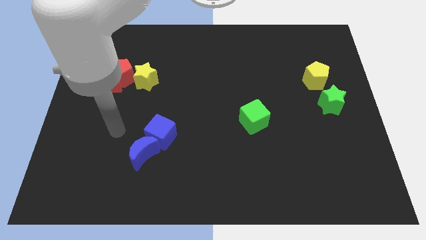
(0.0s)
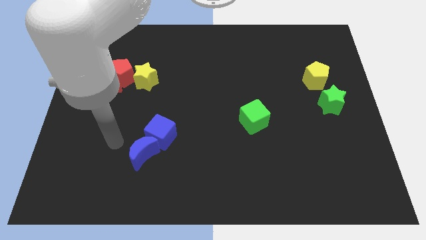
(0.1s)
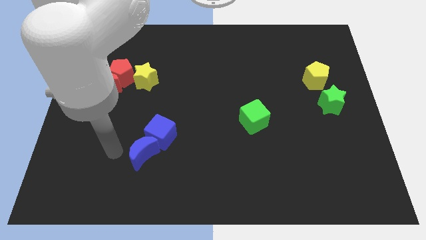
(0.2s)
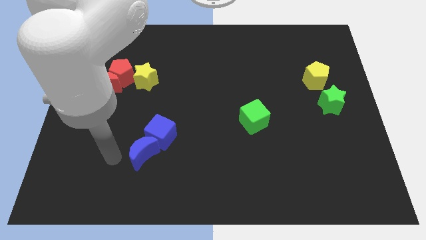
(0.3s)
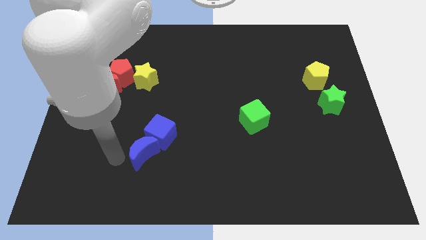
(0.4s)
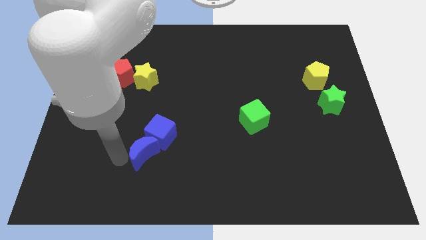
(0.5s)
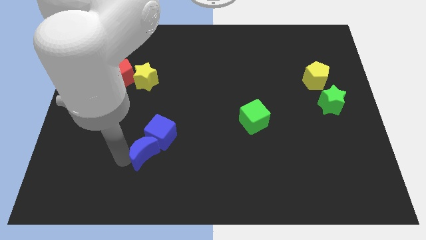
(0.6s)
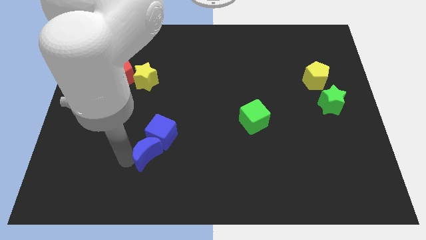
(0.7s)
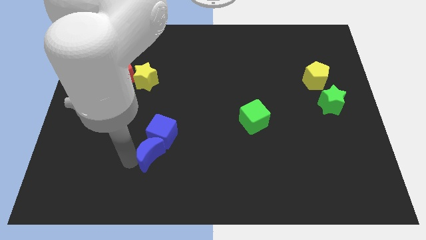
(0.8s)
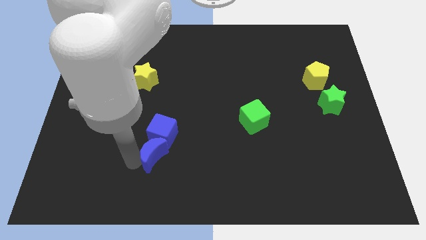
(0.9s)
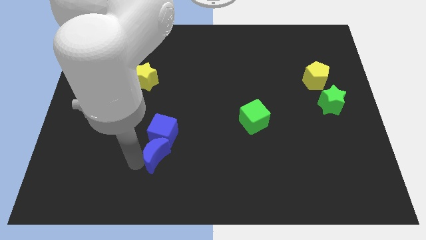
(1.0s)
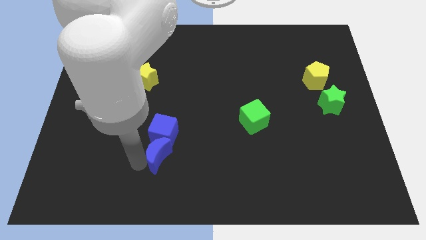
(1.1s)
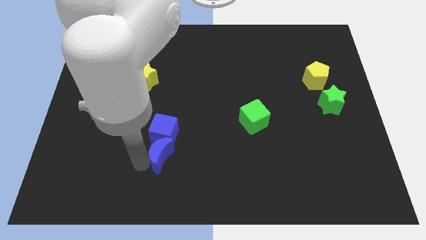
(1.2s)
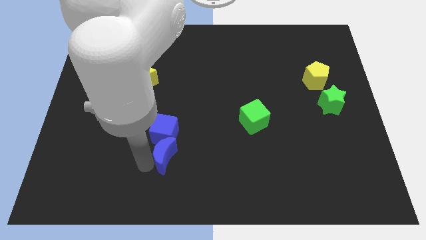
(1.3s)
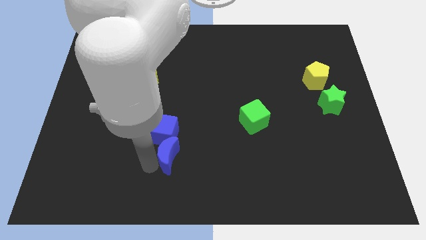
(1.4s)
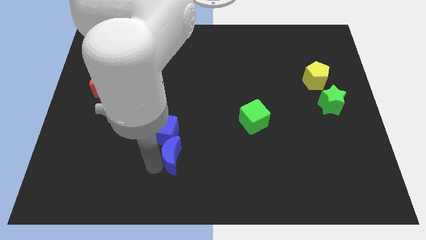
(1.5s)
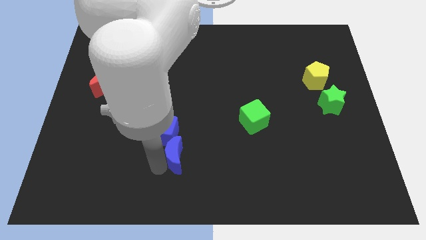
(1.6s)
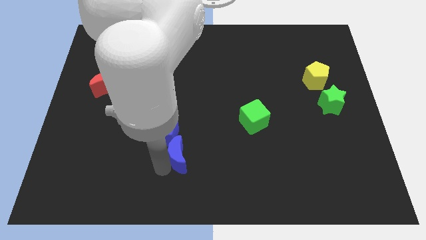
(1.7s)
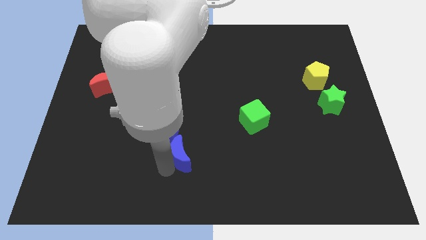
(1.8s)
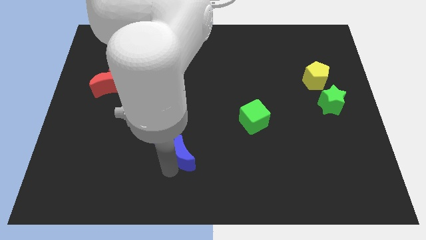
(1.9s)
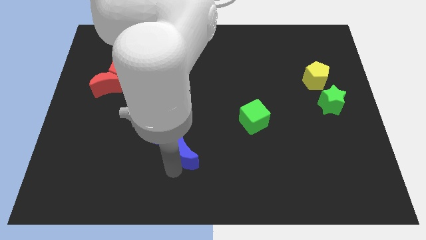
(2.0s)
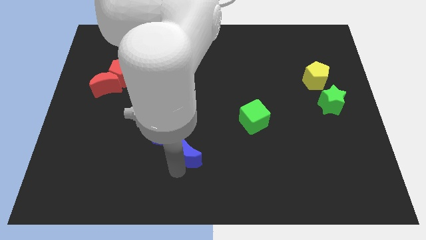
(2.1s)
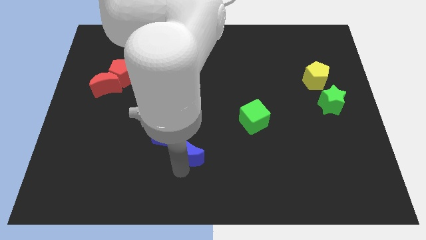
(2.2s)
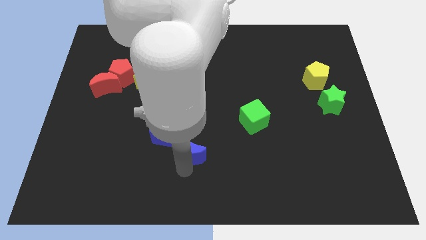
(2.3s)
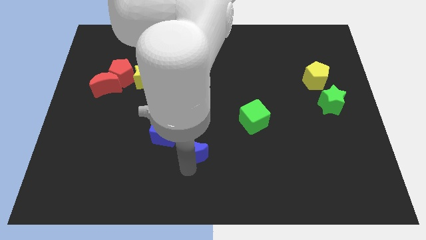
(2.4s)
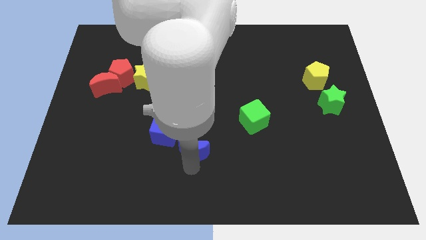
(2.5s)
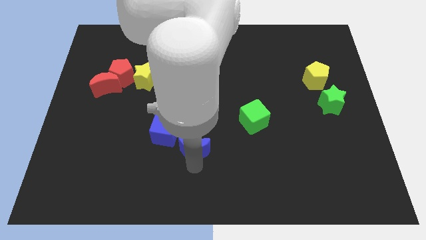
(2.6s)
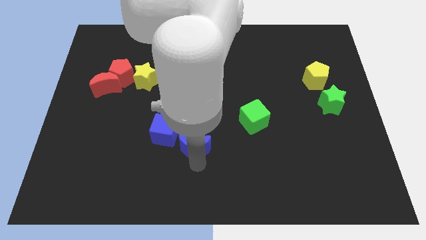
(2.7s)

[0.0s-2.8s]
slightly slide the blue moon up and to the right diagonally

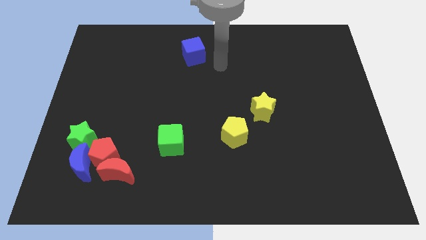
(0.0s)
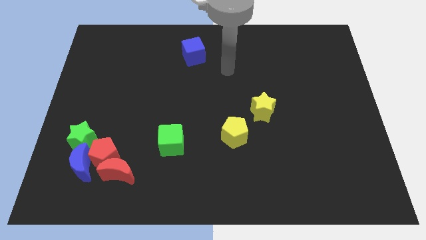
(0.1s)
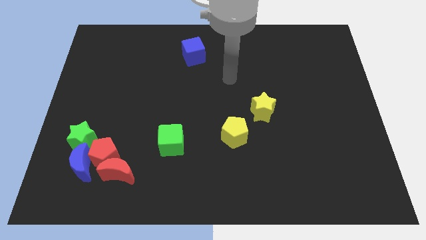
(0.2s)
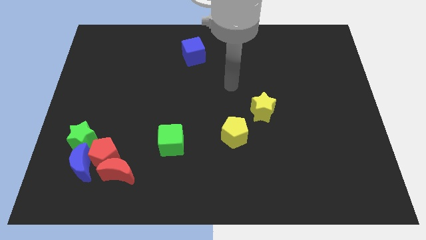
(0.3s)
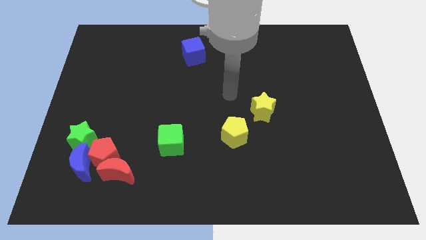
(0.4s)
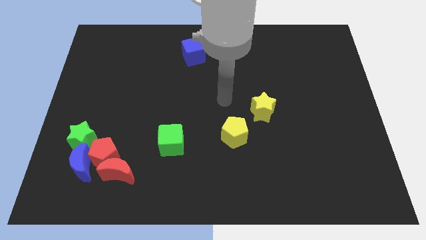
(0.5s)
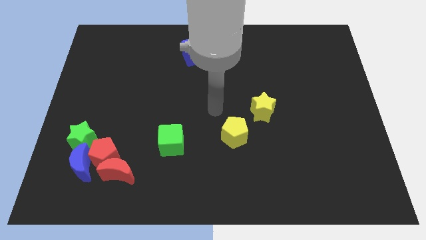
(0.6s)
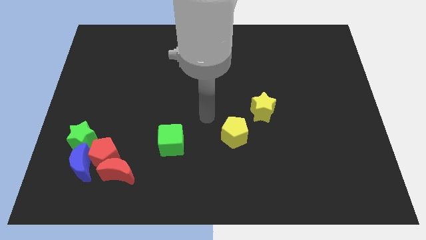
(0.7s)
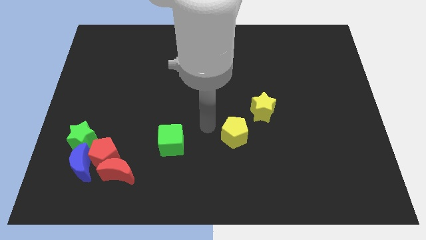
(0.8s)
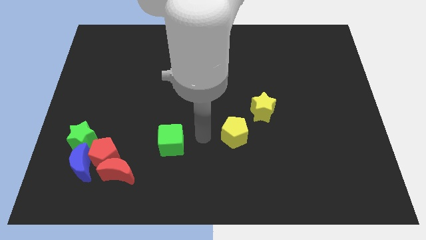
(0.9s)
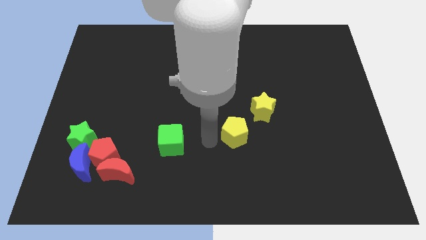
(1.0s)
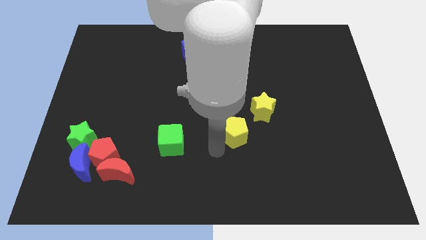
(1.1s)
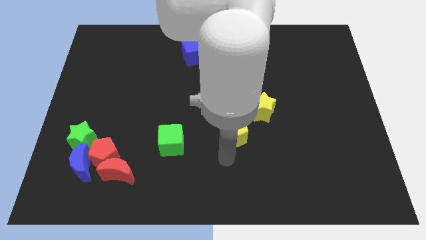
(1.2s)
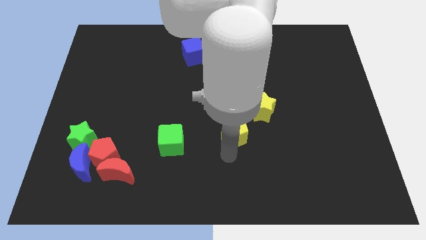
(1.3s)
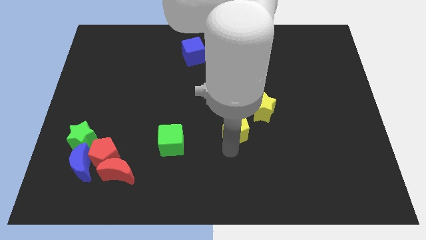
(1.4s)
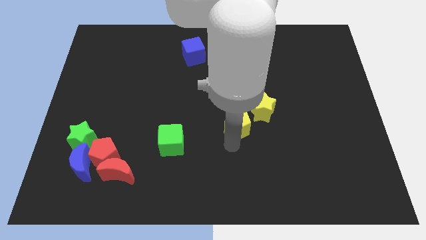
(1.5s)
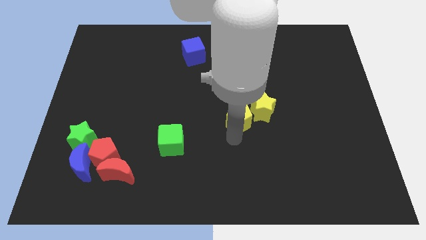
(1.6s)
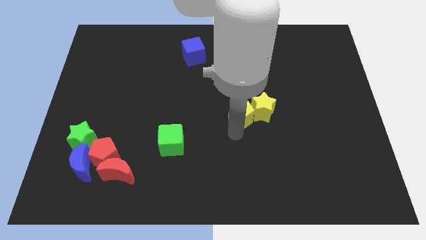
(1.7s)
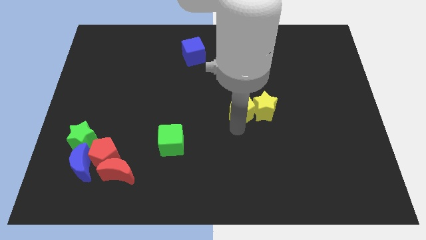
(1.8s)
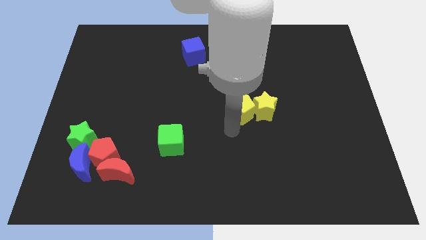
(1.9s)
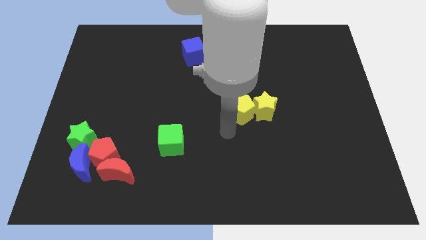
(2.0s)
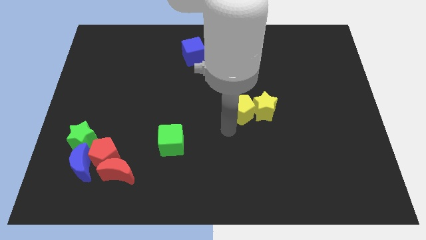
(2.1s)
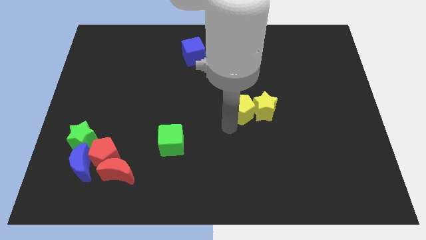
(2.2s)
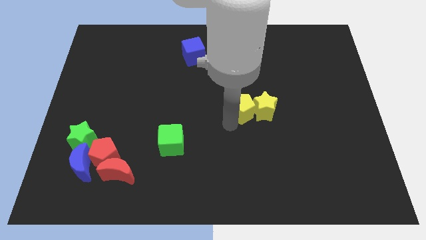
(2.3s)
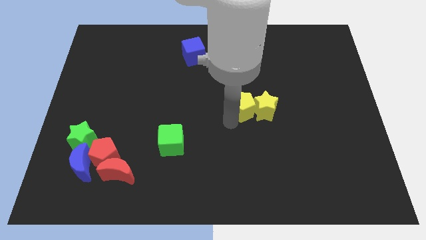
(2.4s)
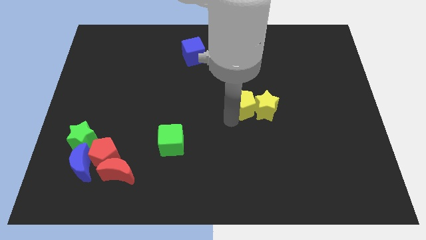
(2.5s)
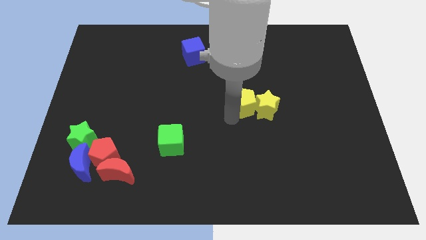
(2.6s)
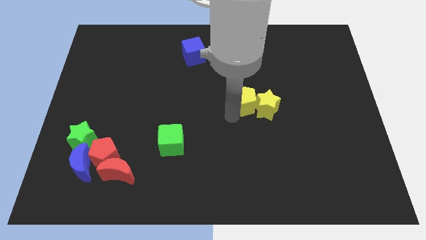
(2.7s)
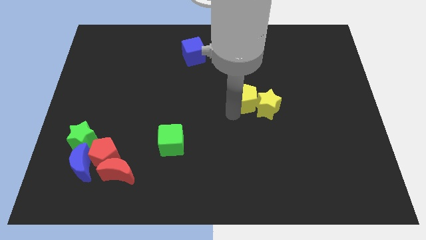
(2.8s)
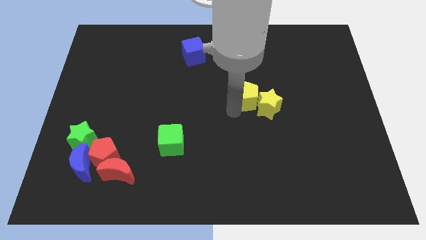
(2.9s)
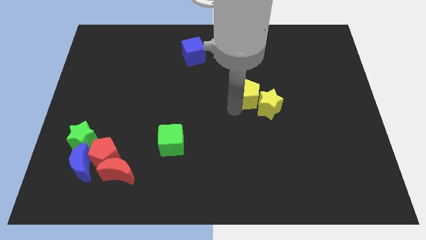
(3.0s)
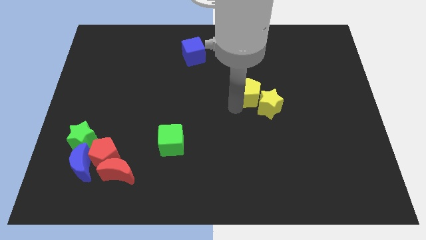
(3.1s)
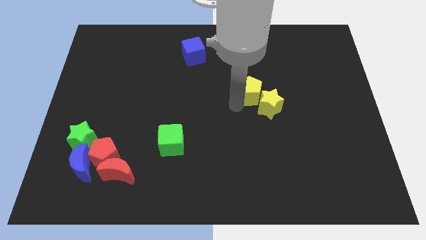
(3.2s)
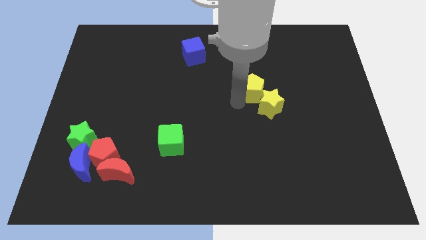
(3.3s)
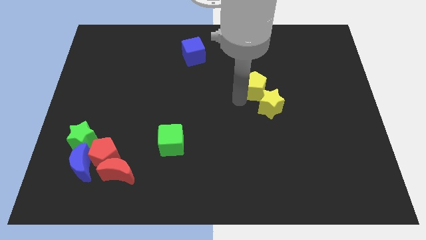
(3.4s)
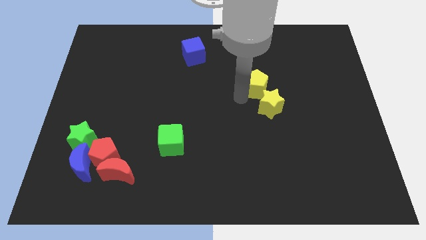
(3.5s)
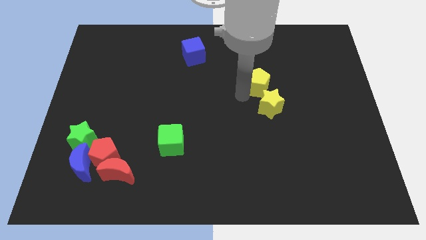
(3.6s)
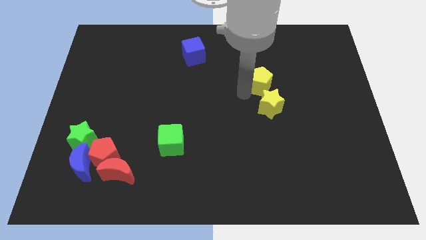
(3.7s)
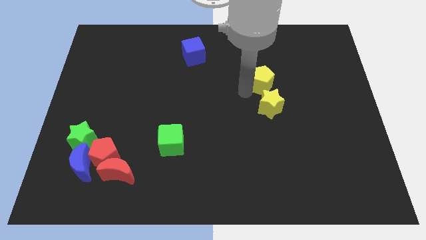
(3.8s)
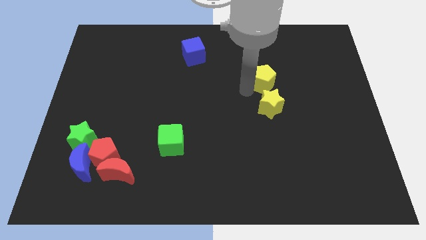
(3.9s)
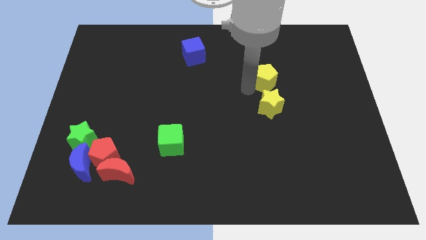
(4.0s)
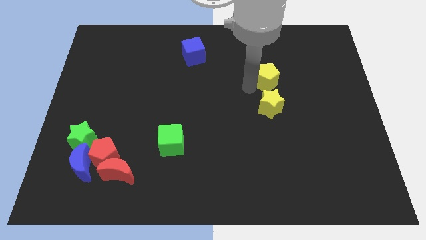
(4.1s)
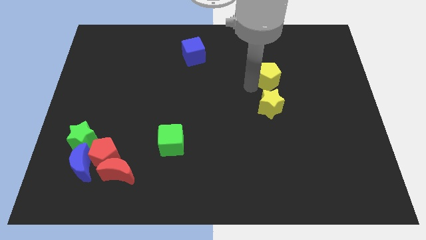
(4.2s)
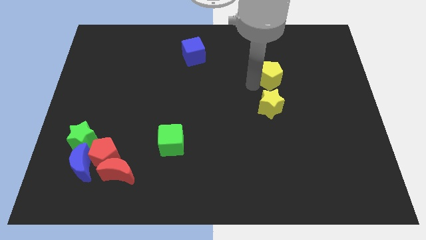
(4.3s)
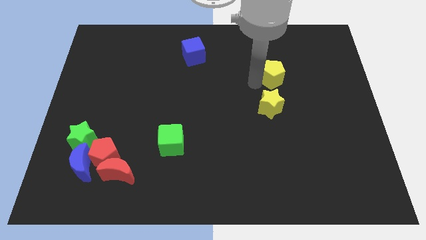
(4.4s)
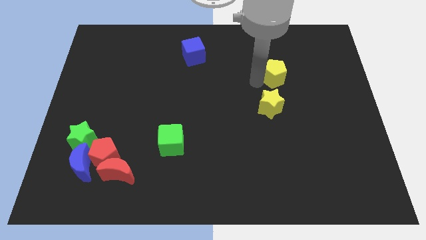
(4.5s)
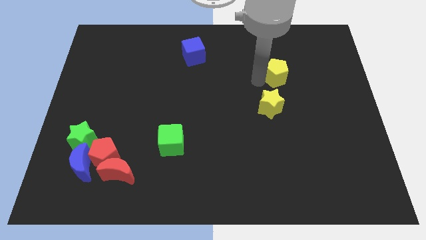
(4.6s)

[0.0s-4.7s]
slide the yellow pentagon upwards and to the right

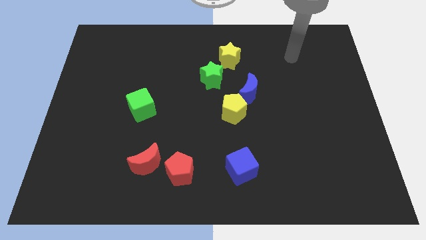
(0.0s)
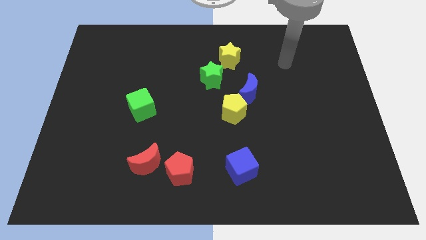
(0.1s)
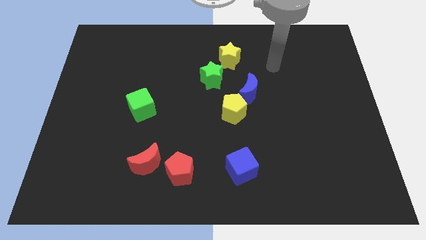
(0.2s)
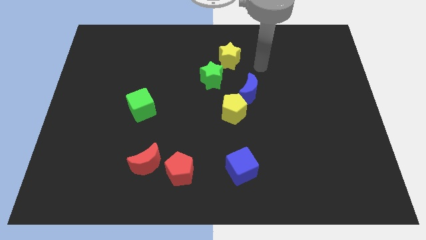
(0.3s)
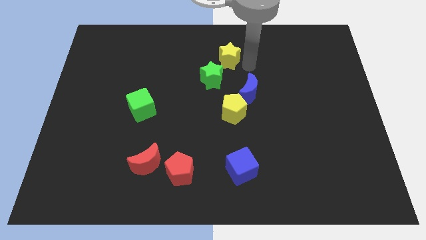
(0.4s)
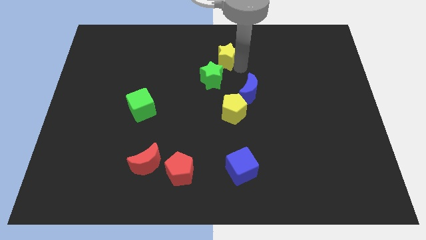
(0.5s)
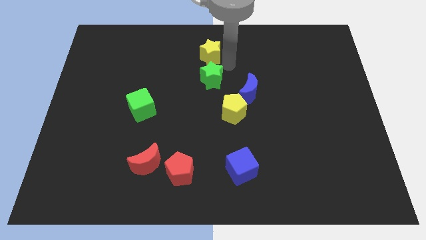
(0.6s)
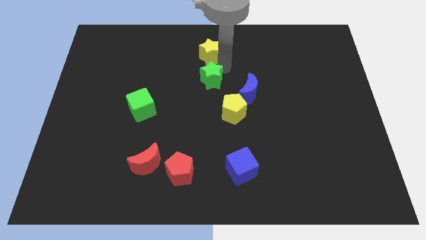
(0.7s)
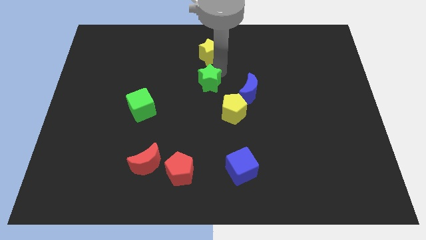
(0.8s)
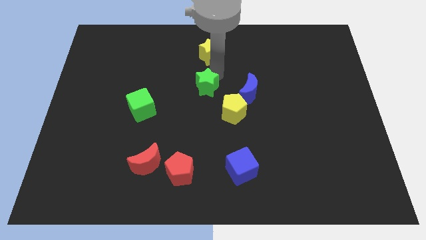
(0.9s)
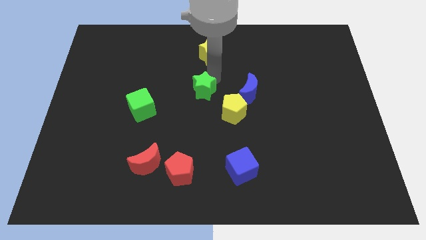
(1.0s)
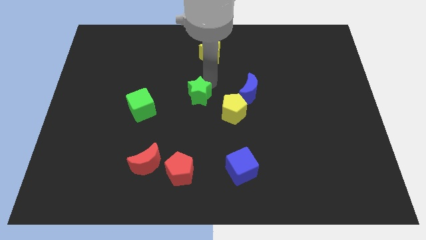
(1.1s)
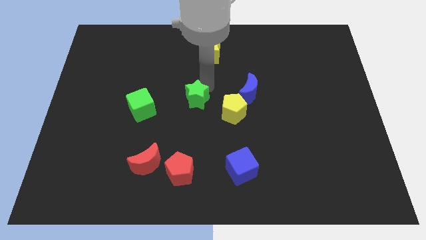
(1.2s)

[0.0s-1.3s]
push the green star downwards and left diagonally a little
